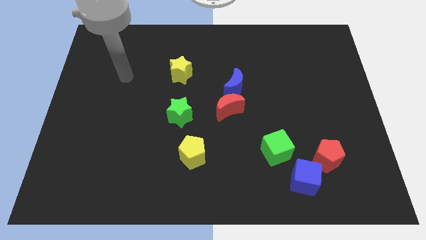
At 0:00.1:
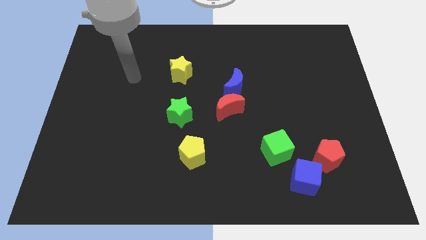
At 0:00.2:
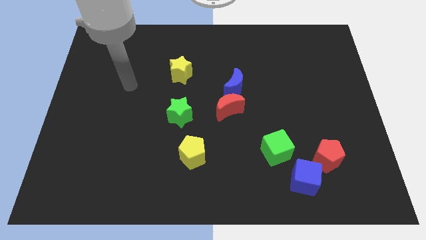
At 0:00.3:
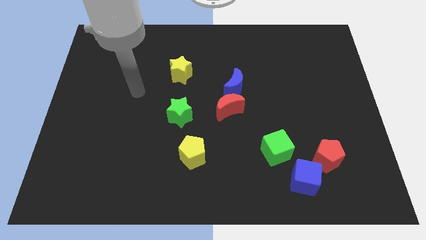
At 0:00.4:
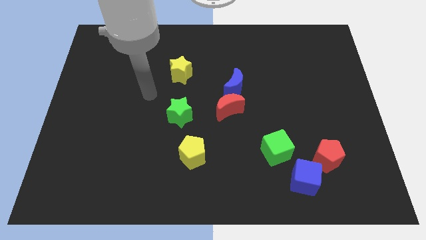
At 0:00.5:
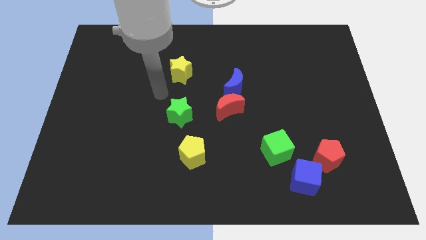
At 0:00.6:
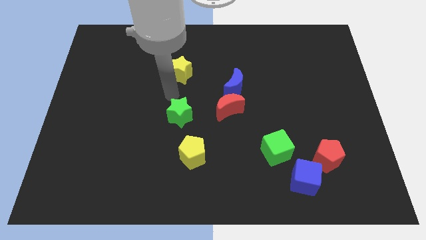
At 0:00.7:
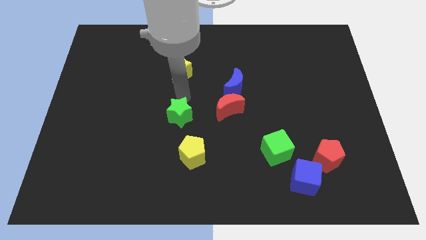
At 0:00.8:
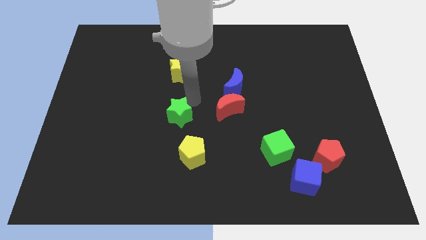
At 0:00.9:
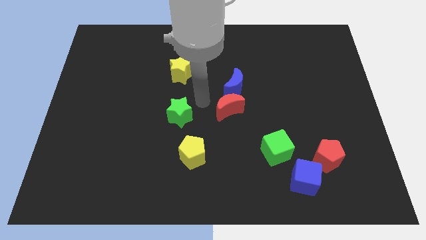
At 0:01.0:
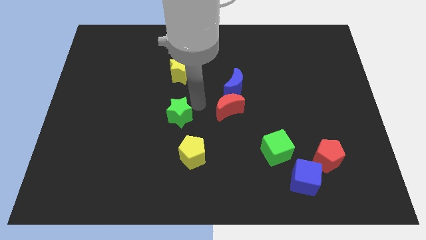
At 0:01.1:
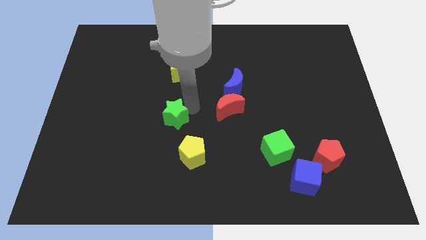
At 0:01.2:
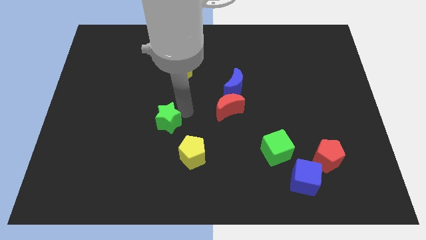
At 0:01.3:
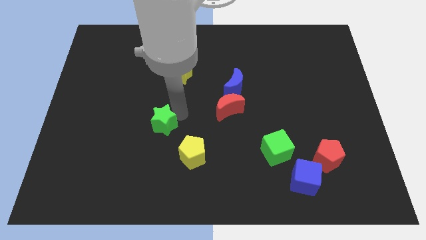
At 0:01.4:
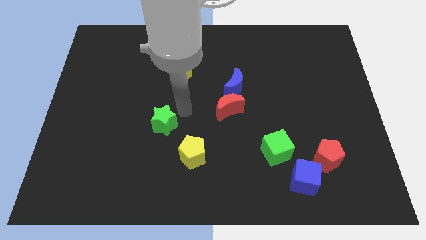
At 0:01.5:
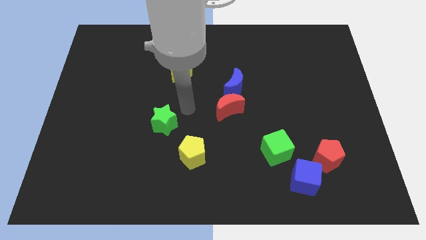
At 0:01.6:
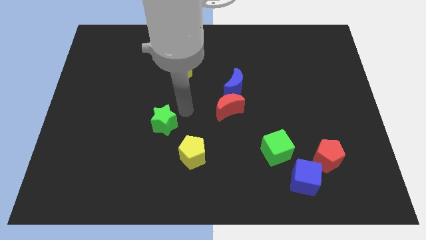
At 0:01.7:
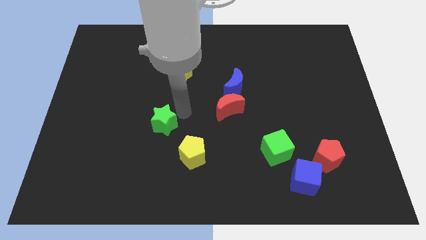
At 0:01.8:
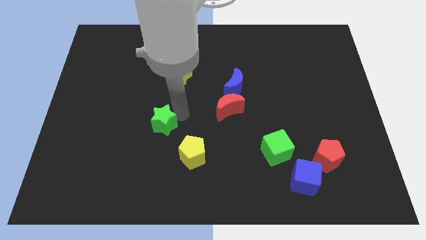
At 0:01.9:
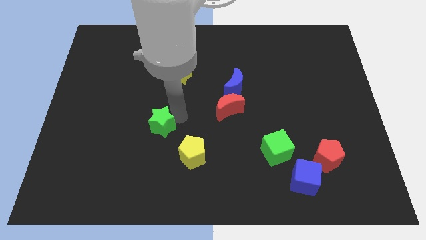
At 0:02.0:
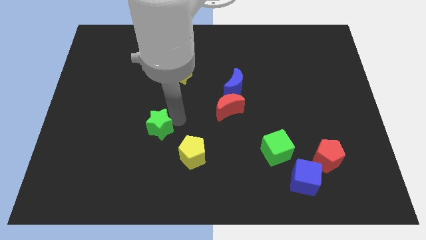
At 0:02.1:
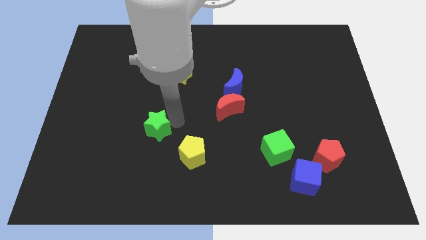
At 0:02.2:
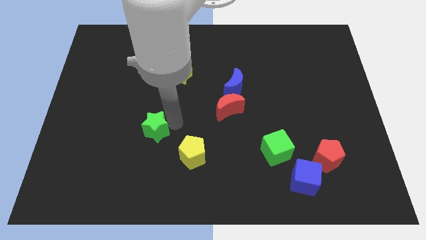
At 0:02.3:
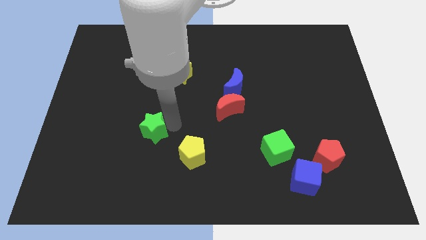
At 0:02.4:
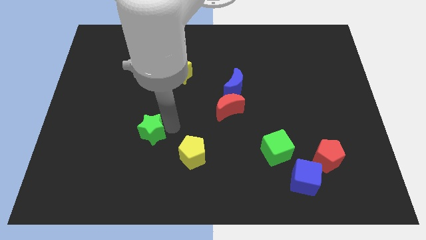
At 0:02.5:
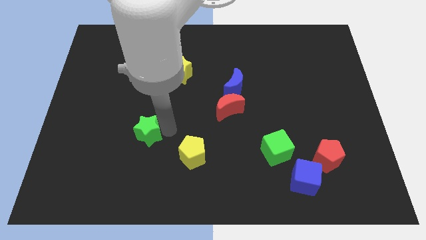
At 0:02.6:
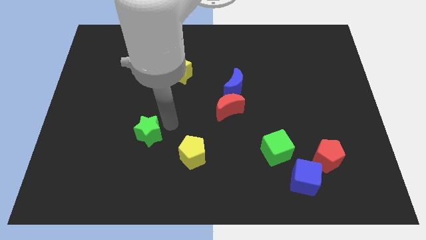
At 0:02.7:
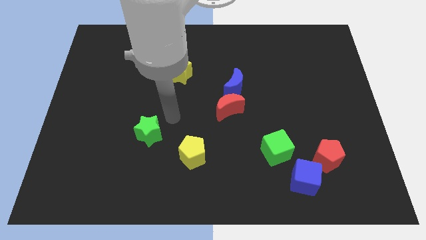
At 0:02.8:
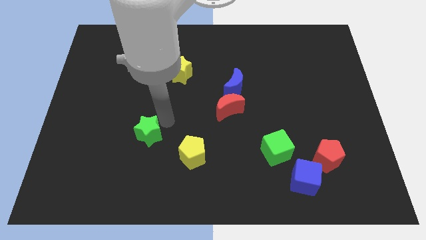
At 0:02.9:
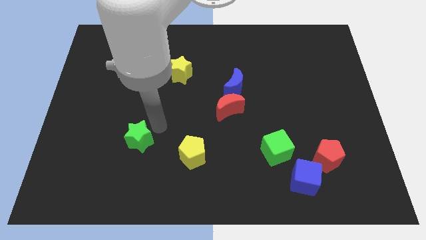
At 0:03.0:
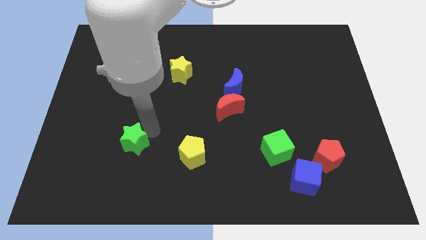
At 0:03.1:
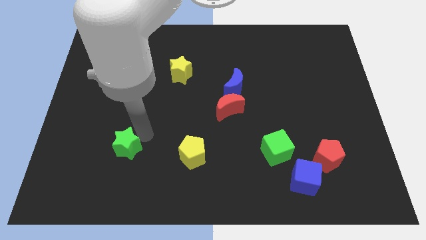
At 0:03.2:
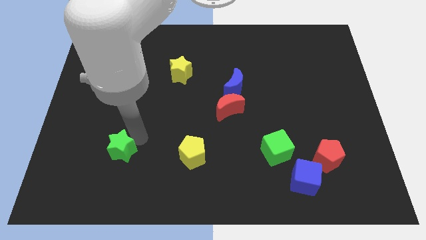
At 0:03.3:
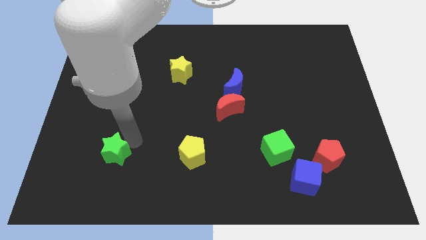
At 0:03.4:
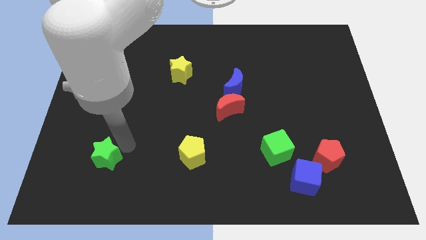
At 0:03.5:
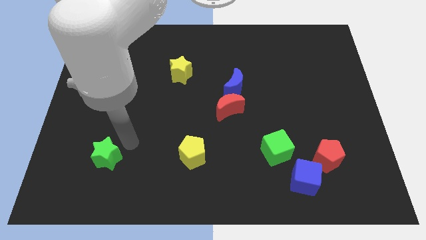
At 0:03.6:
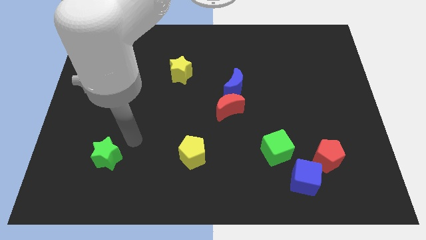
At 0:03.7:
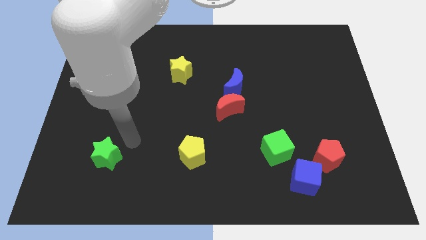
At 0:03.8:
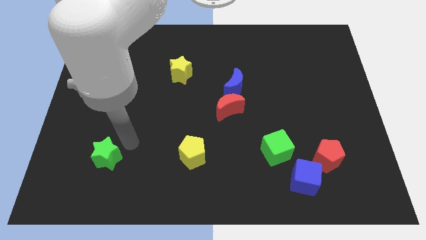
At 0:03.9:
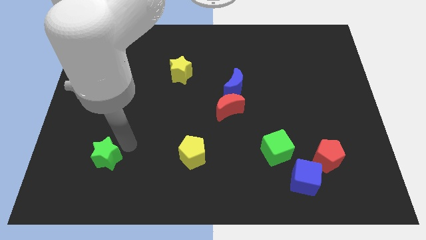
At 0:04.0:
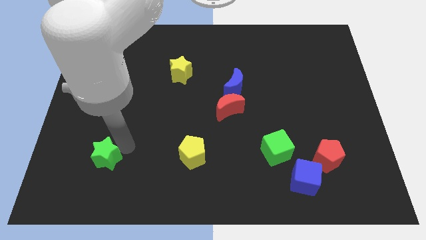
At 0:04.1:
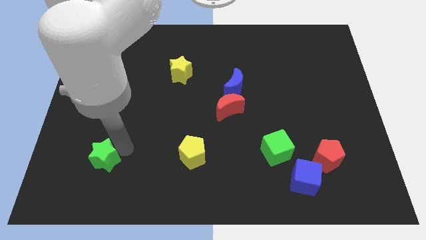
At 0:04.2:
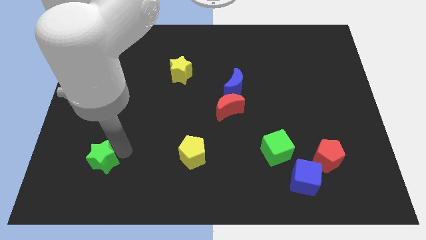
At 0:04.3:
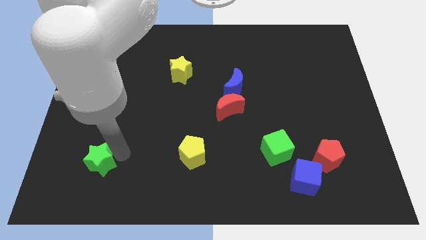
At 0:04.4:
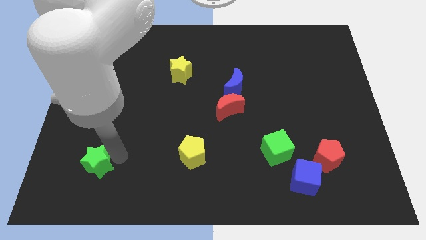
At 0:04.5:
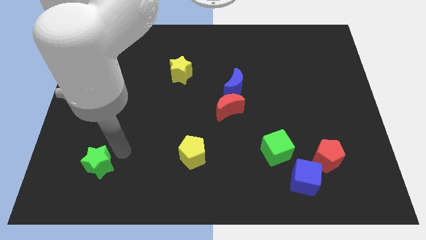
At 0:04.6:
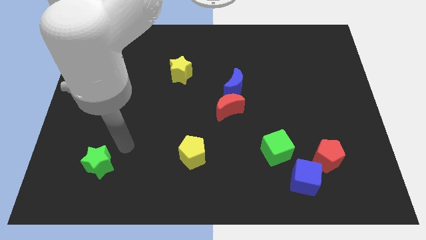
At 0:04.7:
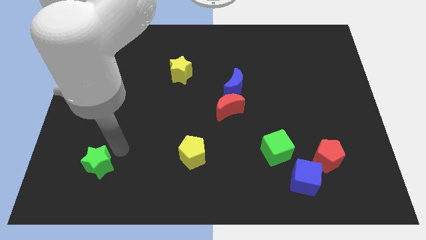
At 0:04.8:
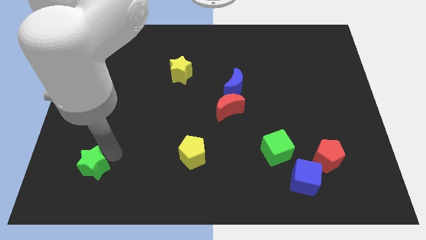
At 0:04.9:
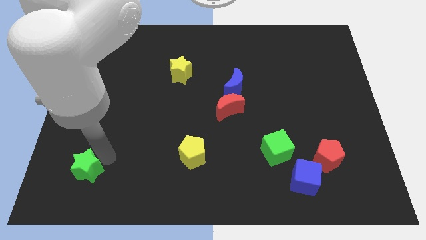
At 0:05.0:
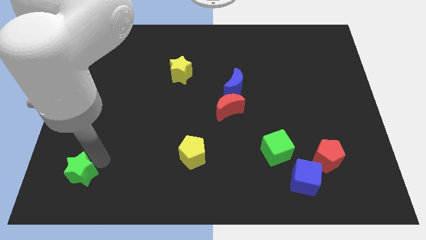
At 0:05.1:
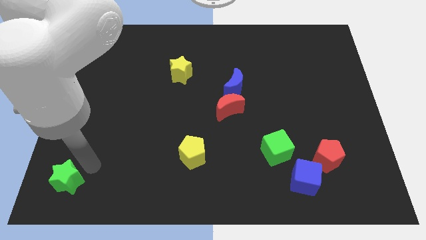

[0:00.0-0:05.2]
put the green star to the bottom left

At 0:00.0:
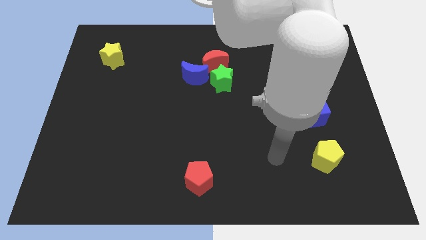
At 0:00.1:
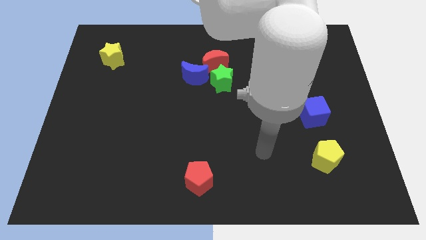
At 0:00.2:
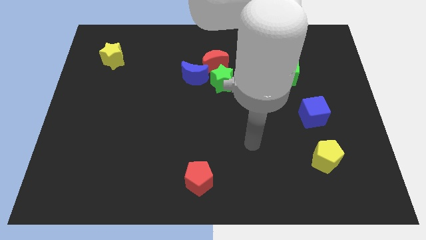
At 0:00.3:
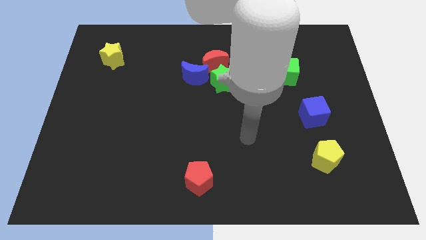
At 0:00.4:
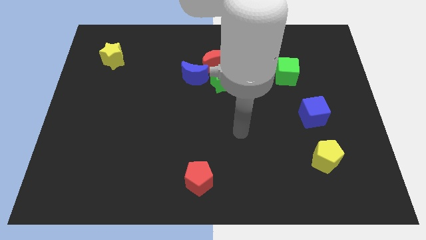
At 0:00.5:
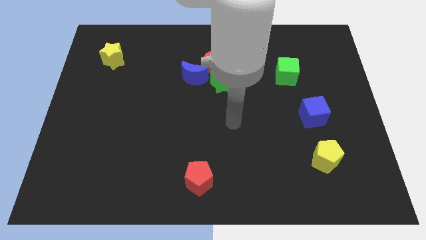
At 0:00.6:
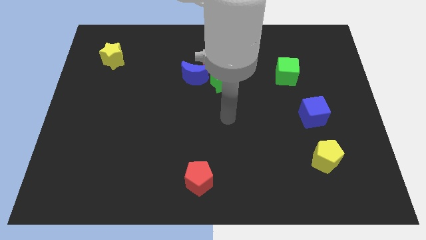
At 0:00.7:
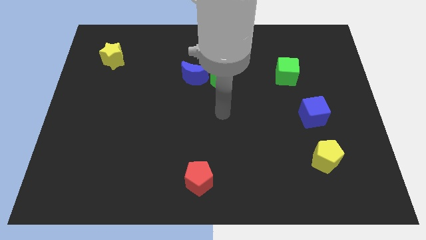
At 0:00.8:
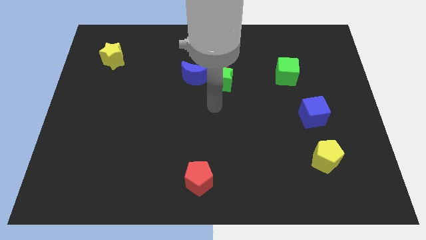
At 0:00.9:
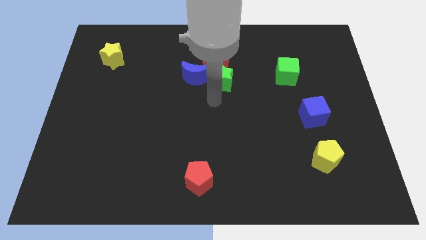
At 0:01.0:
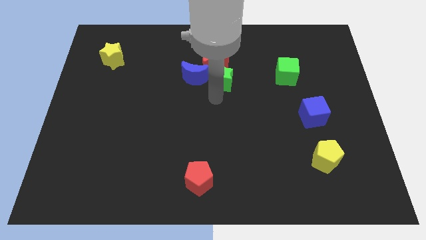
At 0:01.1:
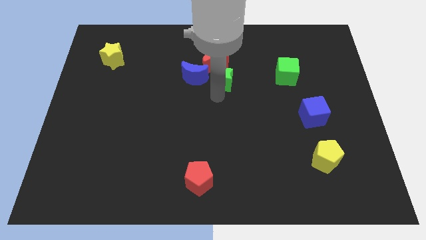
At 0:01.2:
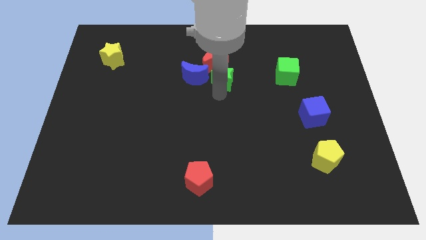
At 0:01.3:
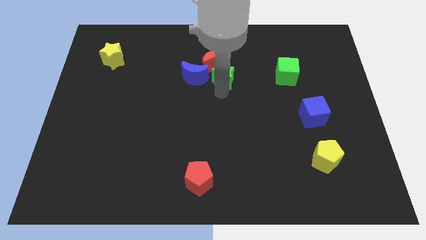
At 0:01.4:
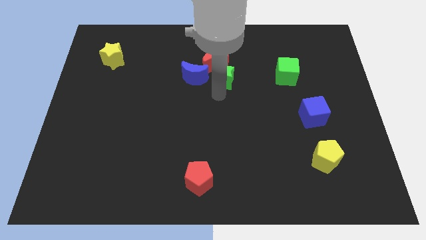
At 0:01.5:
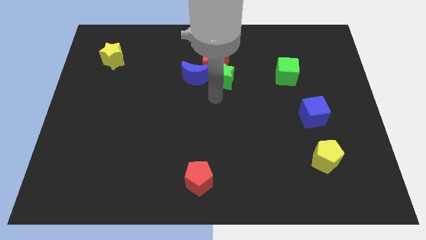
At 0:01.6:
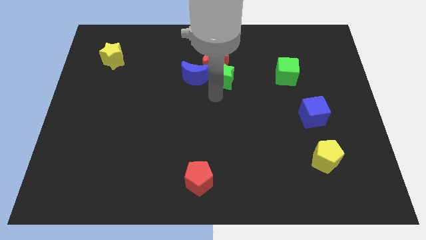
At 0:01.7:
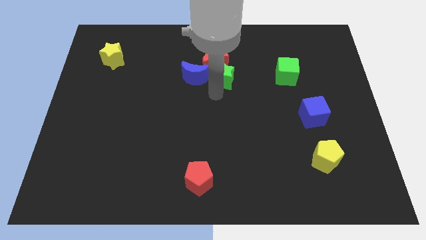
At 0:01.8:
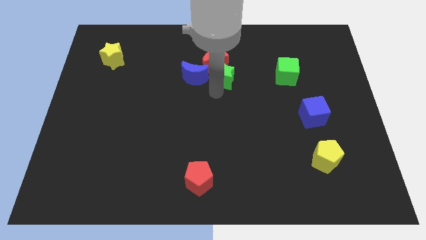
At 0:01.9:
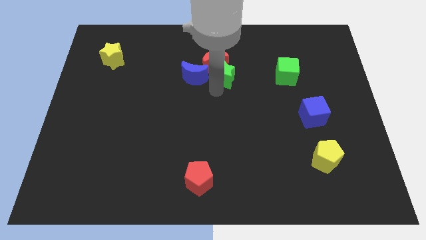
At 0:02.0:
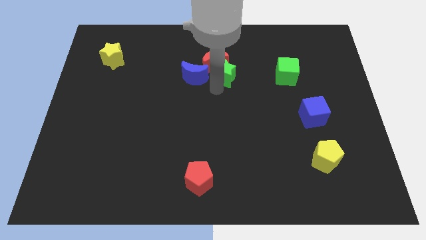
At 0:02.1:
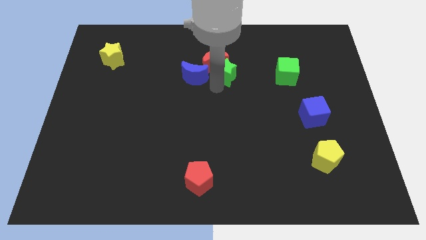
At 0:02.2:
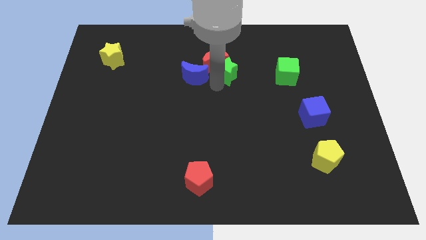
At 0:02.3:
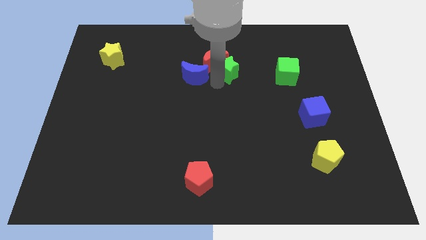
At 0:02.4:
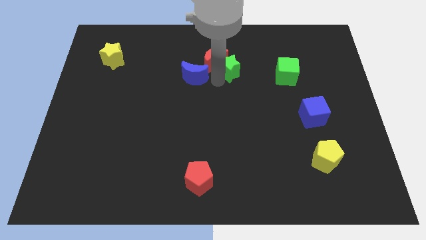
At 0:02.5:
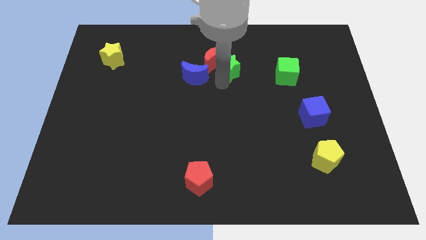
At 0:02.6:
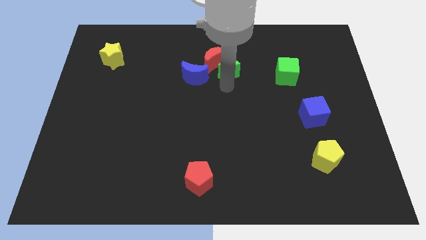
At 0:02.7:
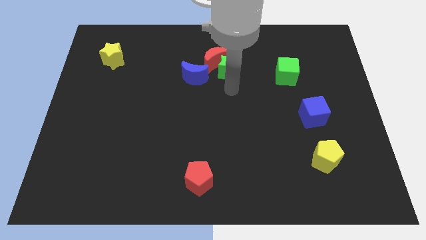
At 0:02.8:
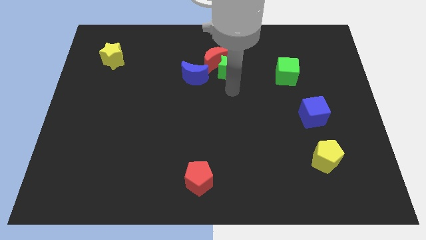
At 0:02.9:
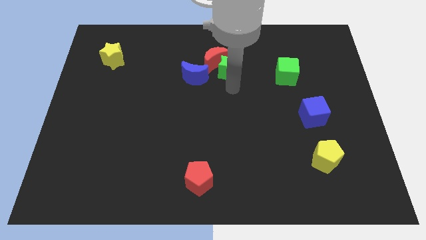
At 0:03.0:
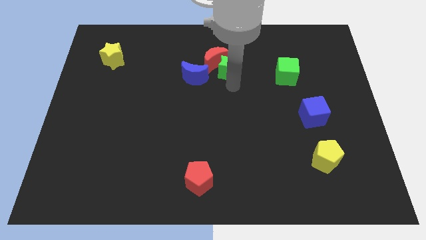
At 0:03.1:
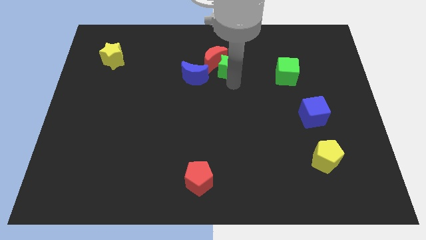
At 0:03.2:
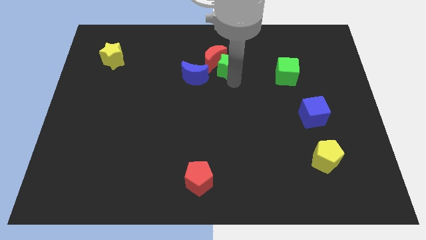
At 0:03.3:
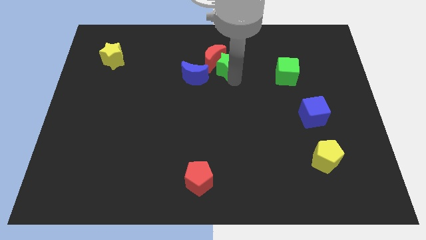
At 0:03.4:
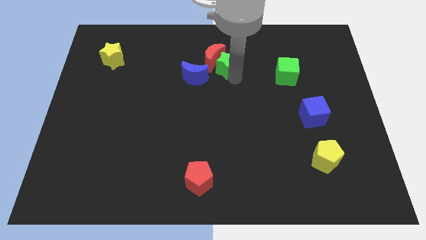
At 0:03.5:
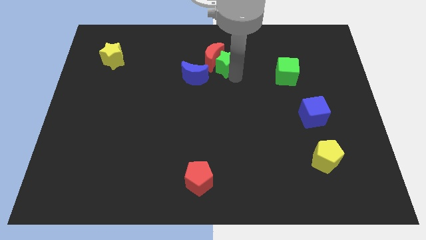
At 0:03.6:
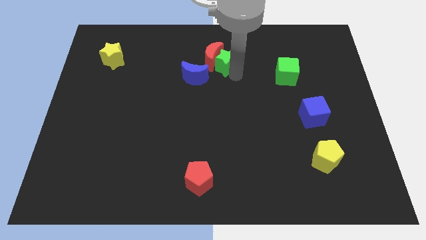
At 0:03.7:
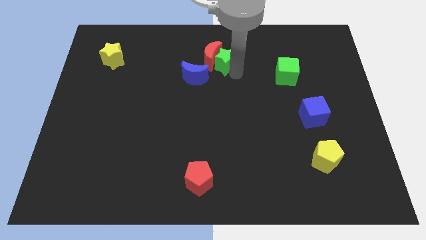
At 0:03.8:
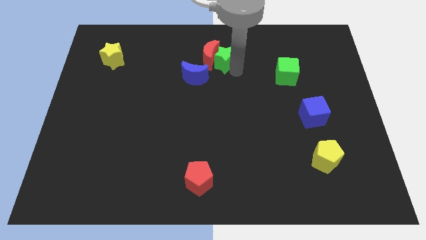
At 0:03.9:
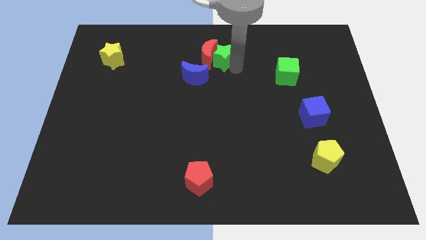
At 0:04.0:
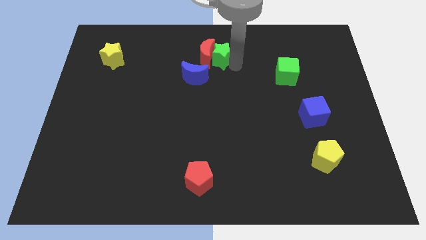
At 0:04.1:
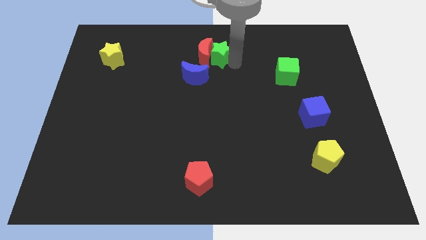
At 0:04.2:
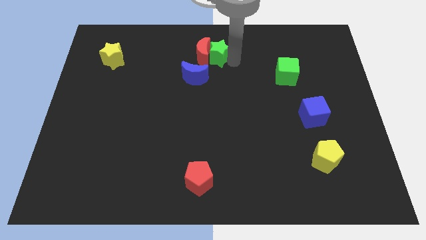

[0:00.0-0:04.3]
put the green star to the top
